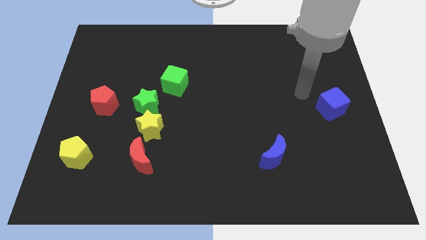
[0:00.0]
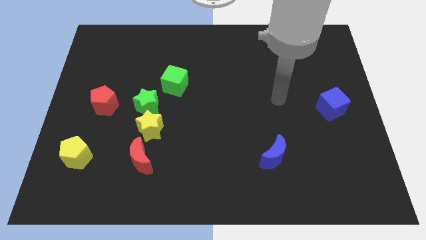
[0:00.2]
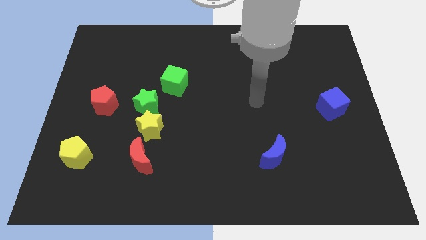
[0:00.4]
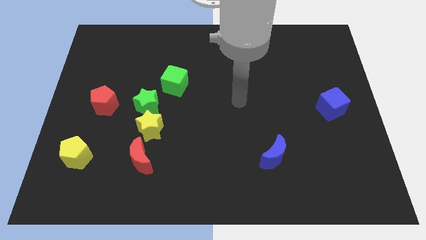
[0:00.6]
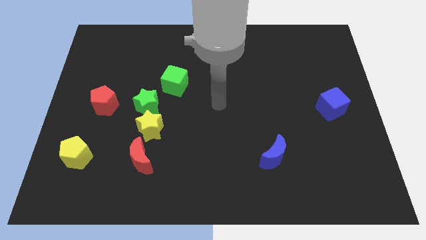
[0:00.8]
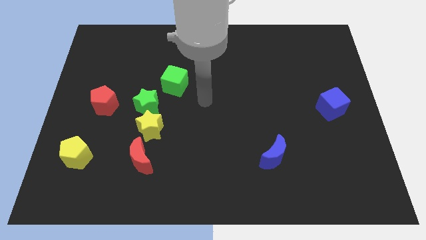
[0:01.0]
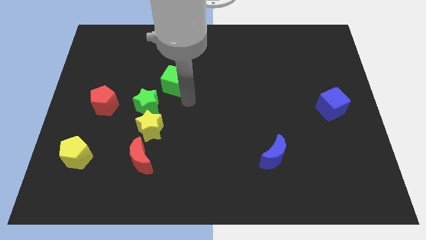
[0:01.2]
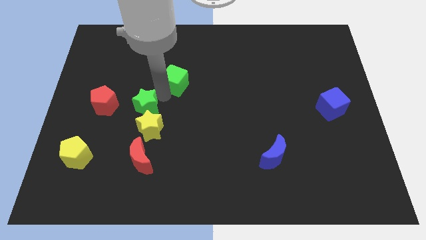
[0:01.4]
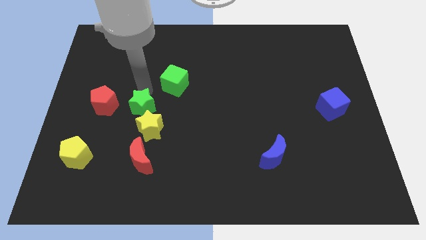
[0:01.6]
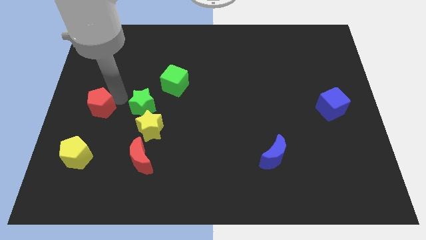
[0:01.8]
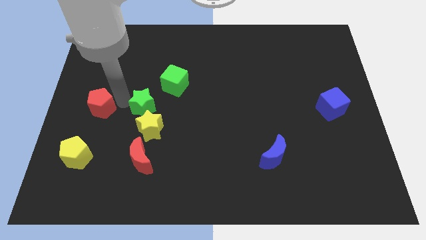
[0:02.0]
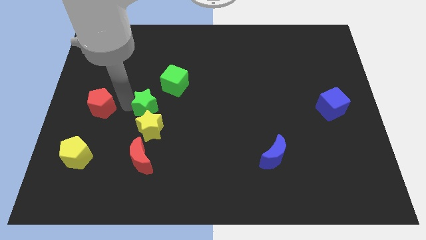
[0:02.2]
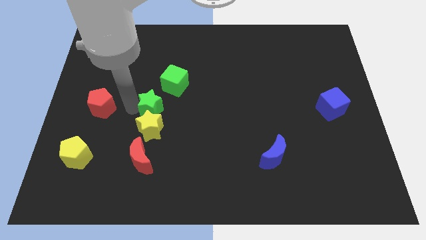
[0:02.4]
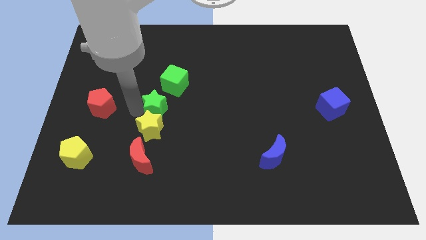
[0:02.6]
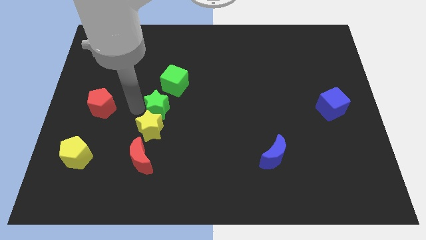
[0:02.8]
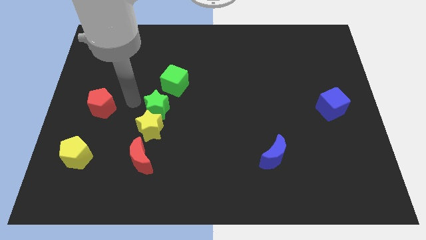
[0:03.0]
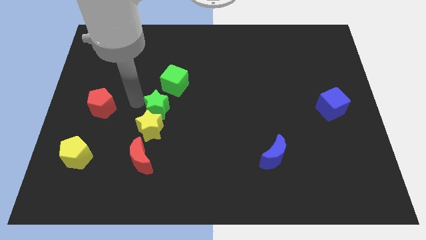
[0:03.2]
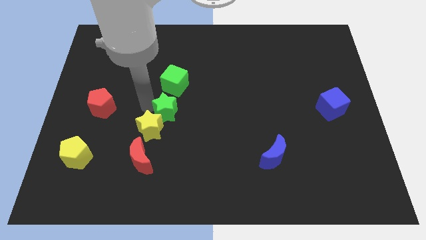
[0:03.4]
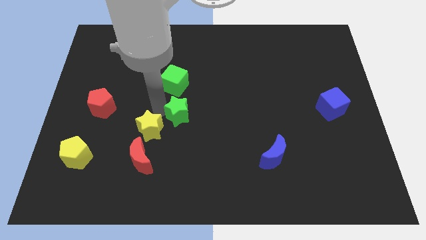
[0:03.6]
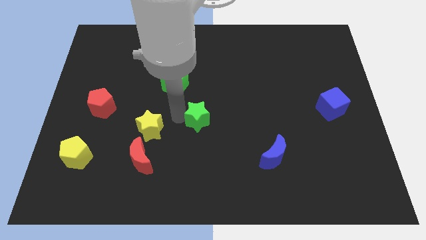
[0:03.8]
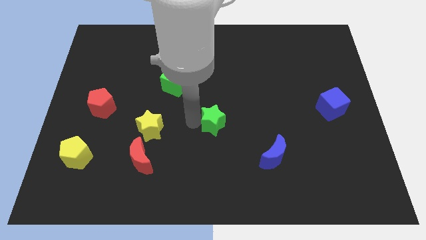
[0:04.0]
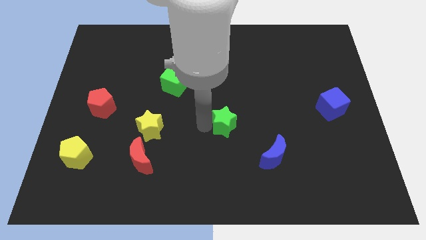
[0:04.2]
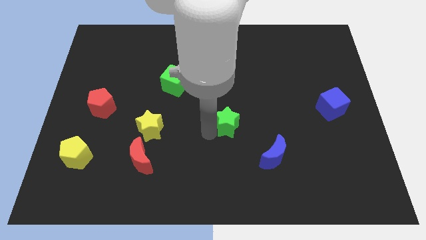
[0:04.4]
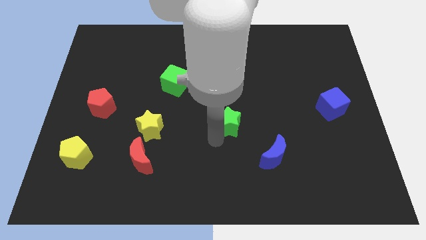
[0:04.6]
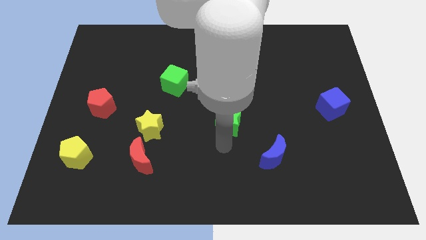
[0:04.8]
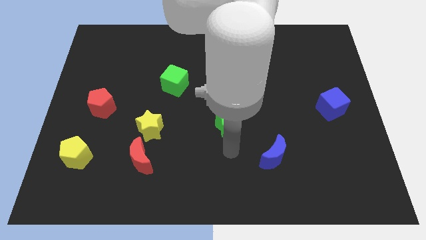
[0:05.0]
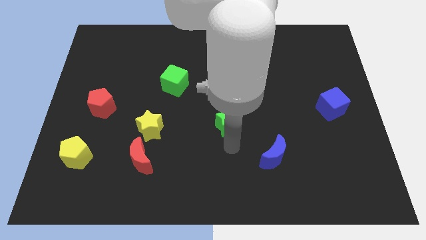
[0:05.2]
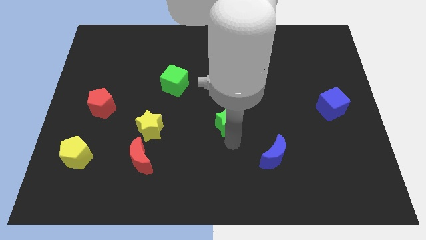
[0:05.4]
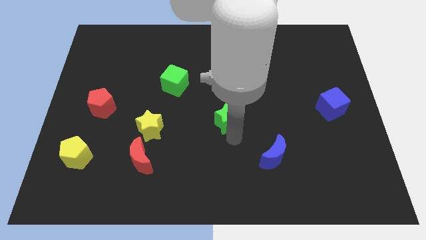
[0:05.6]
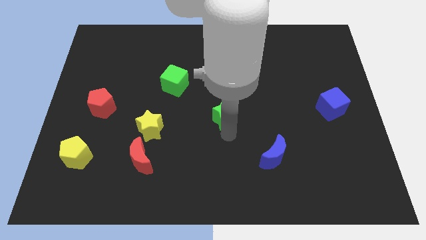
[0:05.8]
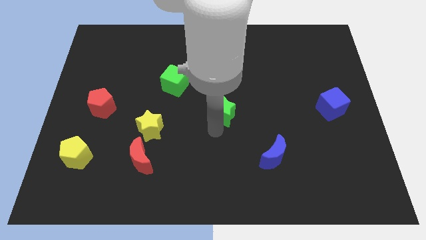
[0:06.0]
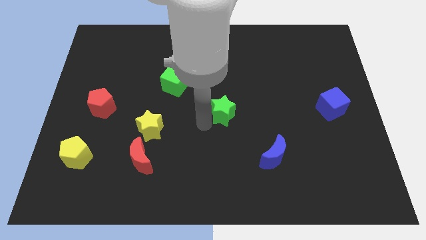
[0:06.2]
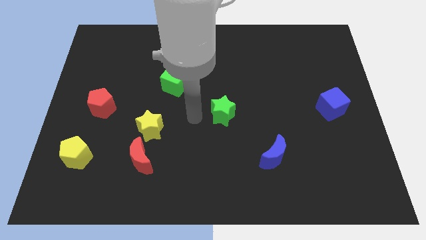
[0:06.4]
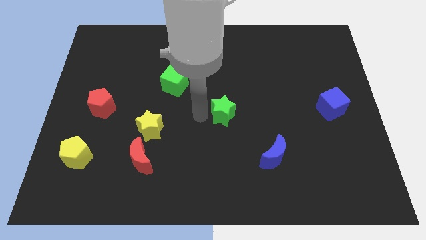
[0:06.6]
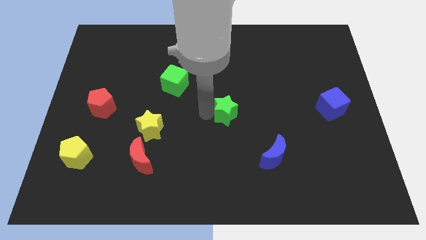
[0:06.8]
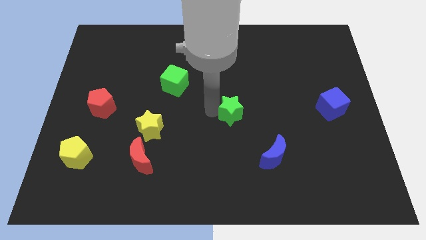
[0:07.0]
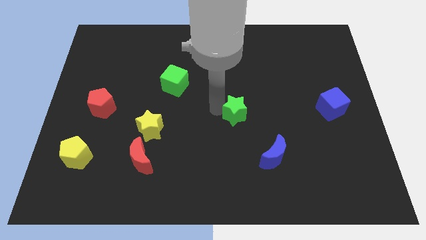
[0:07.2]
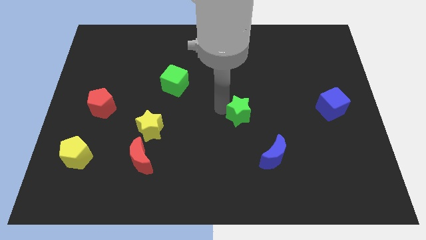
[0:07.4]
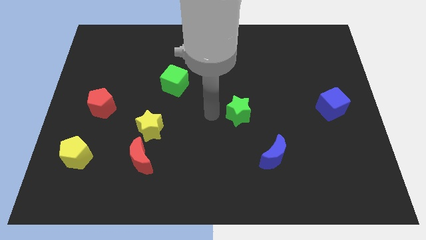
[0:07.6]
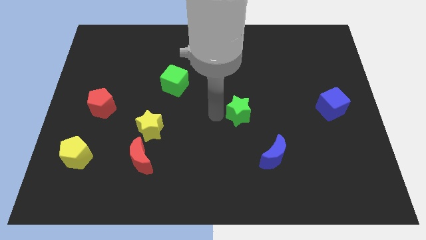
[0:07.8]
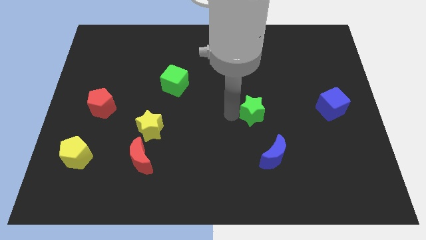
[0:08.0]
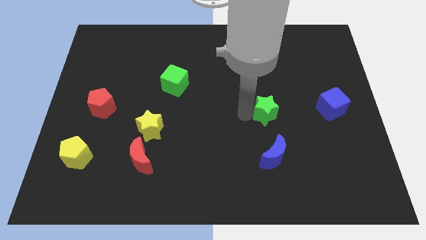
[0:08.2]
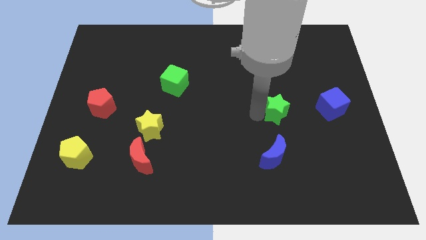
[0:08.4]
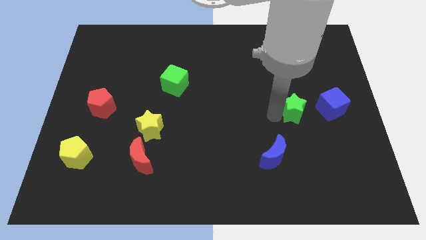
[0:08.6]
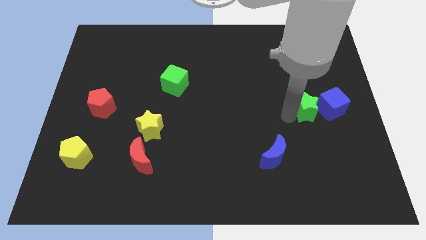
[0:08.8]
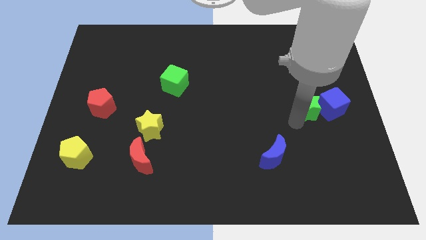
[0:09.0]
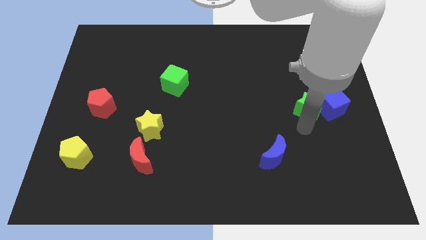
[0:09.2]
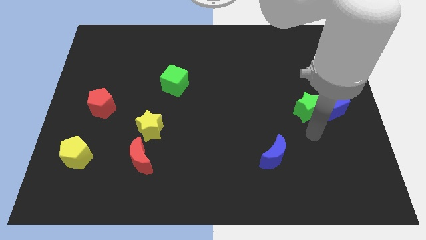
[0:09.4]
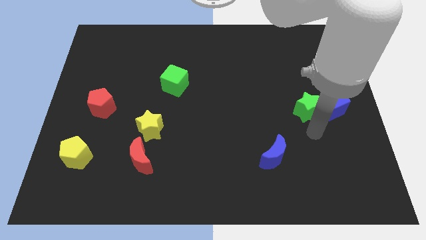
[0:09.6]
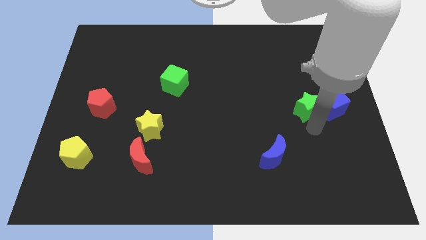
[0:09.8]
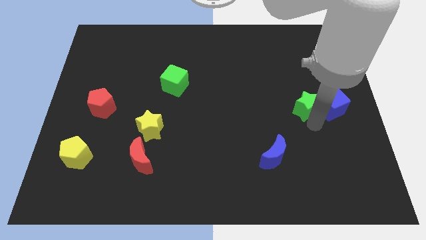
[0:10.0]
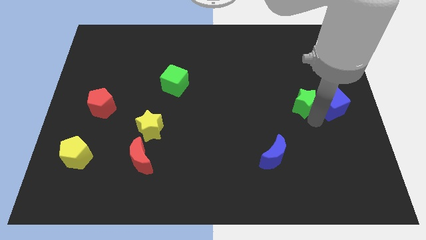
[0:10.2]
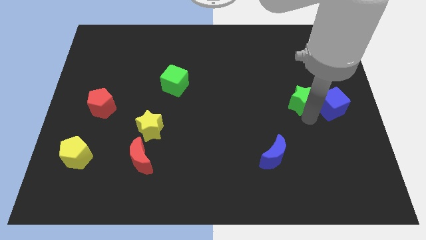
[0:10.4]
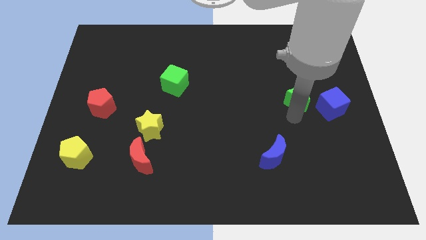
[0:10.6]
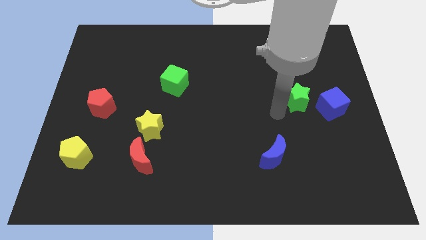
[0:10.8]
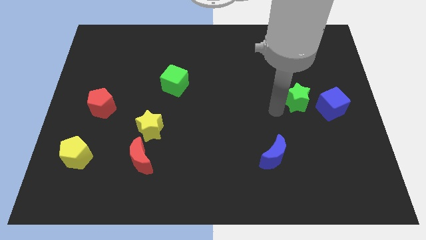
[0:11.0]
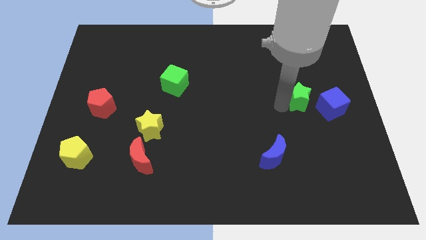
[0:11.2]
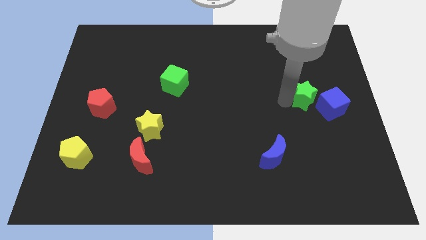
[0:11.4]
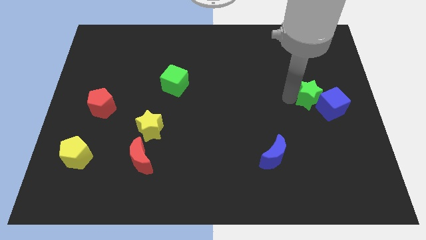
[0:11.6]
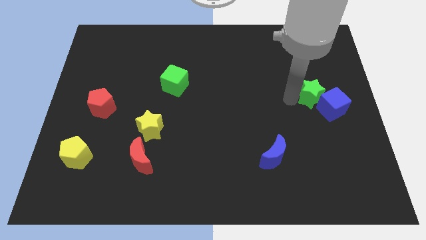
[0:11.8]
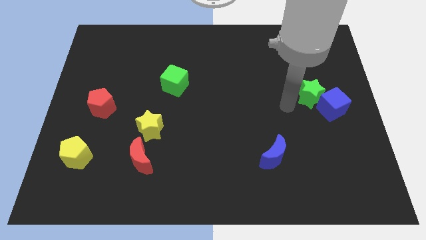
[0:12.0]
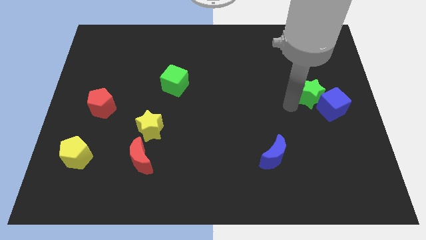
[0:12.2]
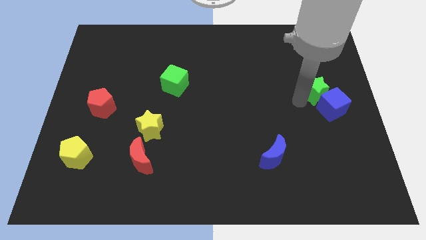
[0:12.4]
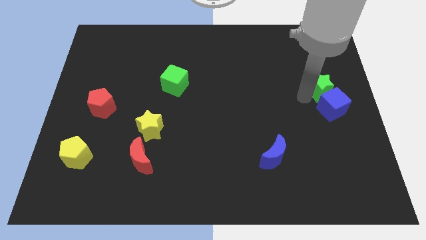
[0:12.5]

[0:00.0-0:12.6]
put the green star to the right side

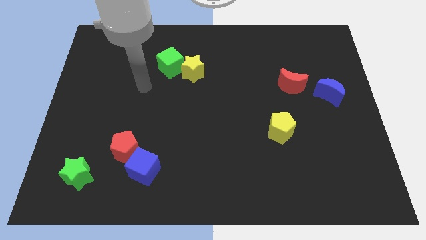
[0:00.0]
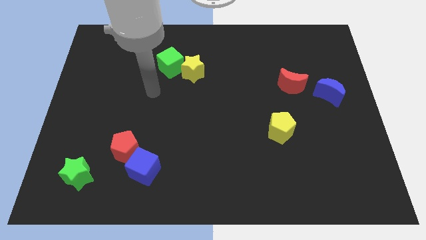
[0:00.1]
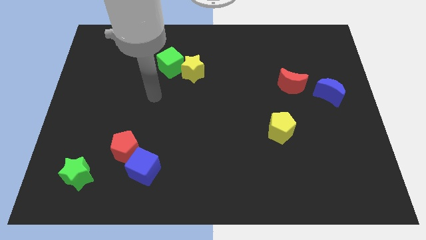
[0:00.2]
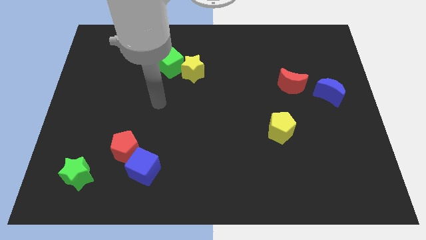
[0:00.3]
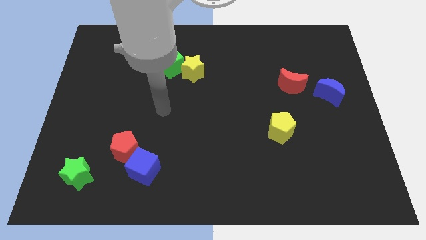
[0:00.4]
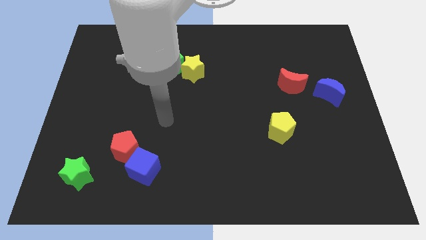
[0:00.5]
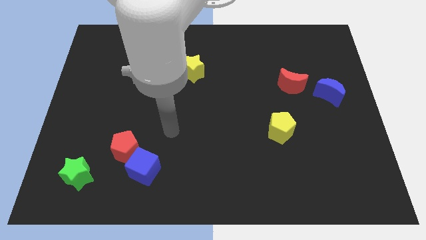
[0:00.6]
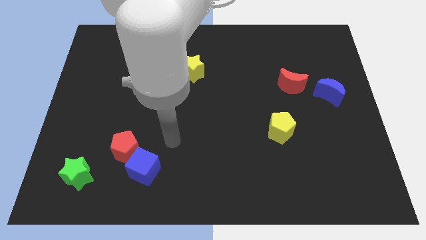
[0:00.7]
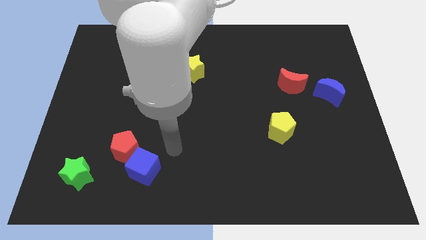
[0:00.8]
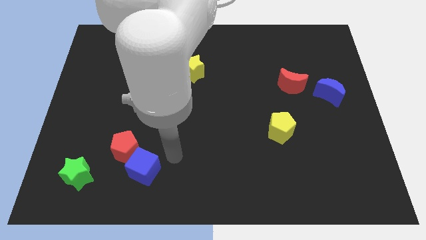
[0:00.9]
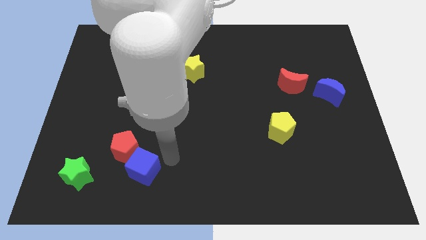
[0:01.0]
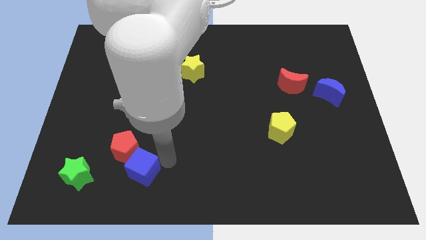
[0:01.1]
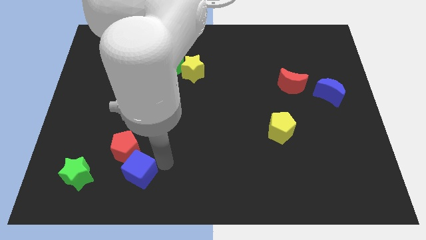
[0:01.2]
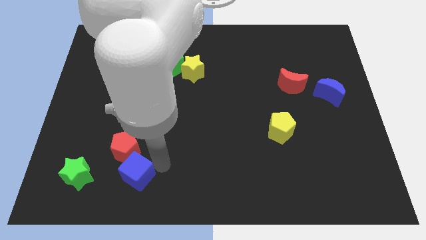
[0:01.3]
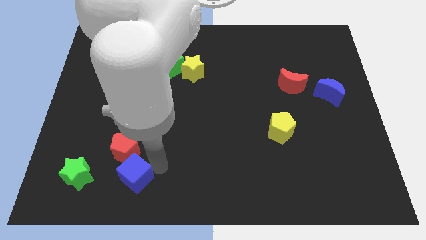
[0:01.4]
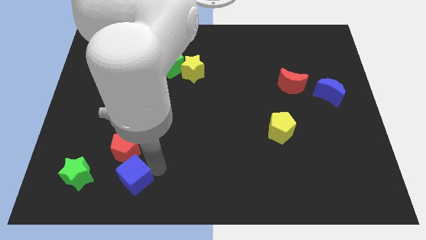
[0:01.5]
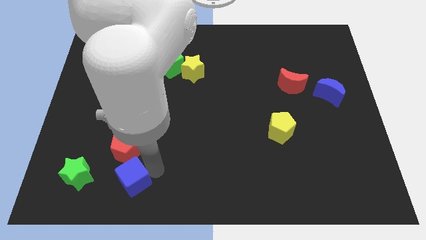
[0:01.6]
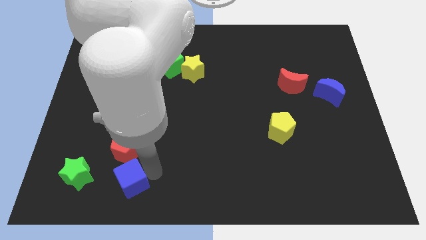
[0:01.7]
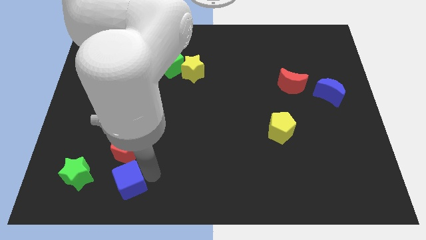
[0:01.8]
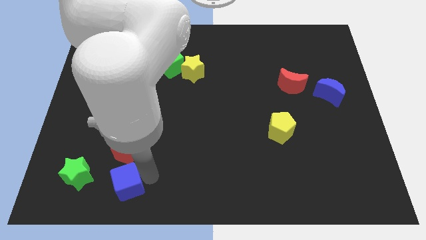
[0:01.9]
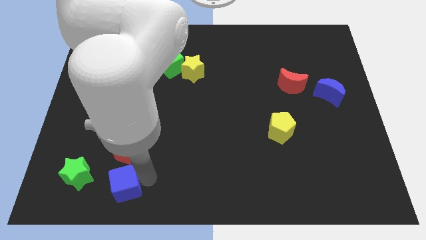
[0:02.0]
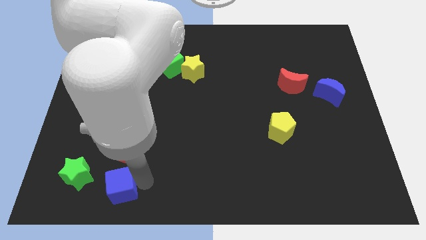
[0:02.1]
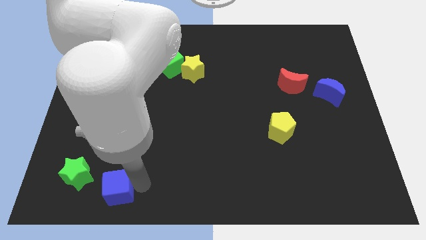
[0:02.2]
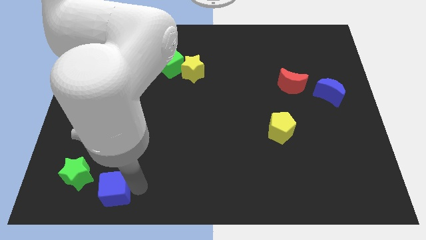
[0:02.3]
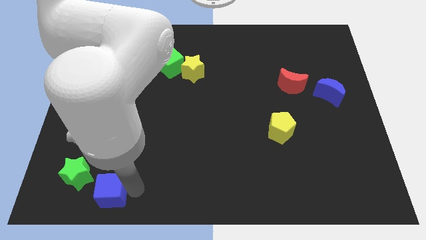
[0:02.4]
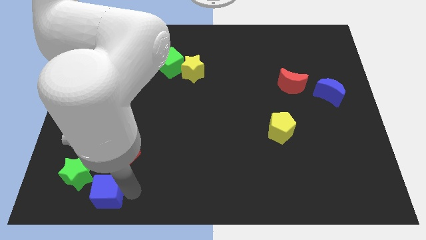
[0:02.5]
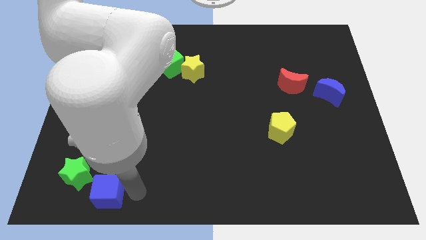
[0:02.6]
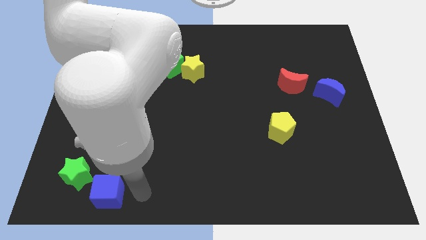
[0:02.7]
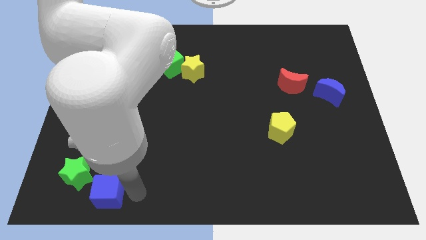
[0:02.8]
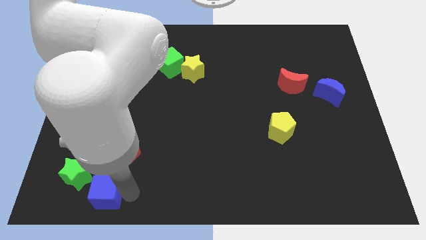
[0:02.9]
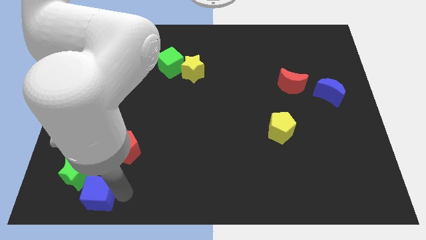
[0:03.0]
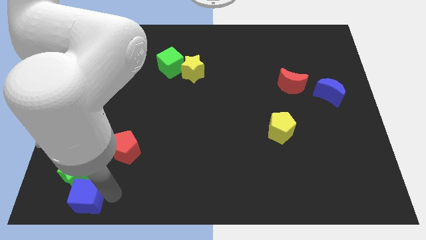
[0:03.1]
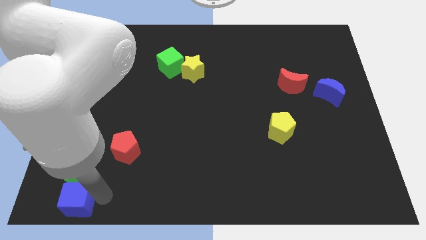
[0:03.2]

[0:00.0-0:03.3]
put the blue cube to the bottom left
